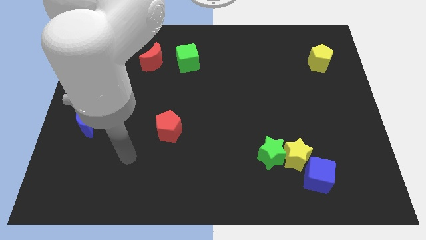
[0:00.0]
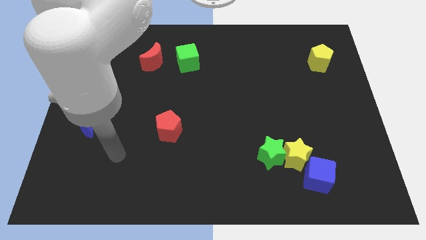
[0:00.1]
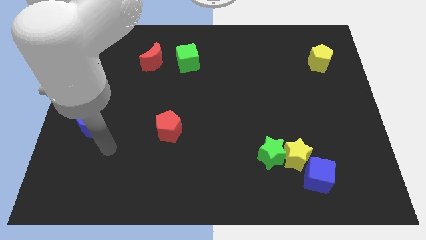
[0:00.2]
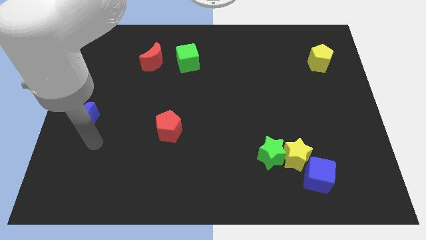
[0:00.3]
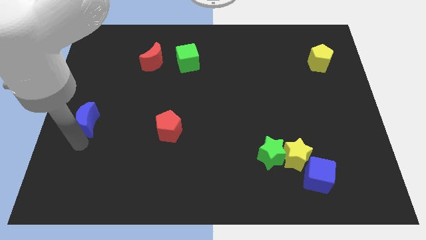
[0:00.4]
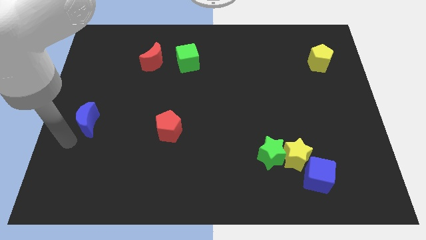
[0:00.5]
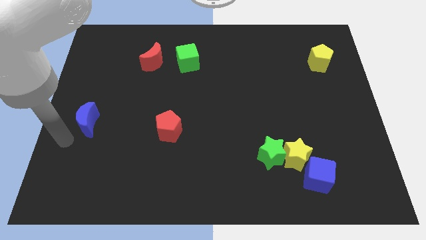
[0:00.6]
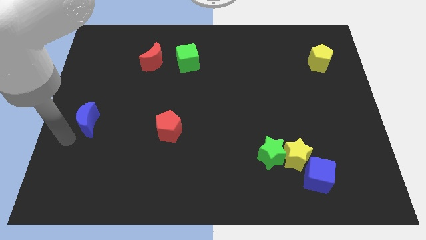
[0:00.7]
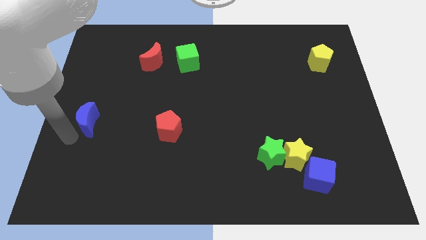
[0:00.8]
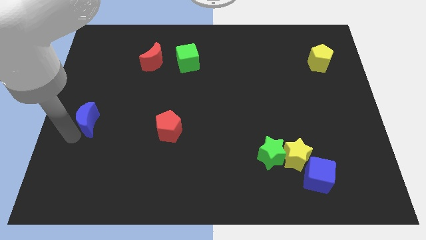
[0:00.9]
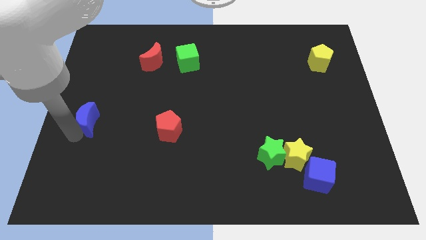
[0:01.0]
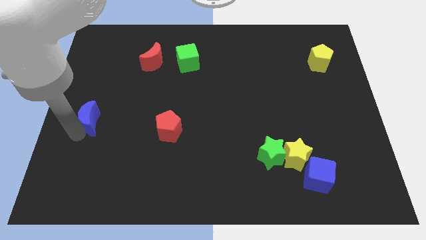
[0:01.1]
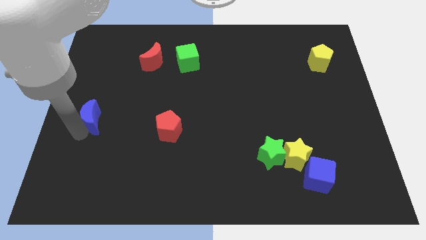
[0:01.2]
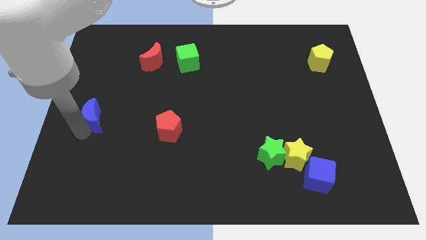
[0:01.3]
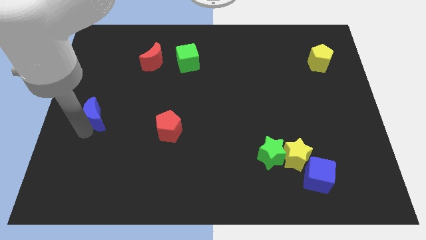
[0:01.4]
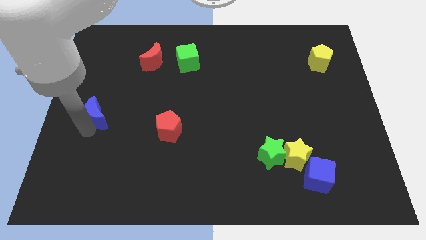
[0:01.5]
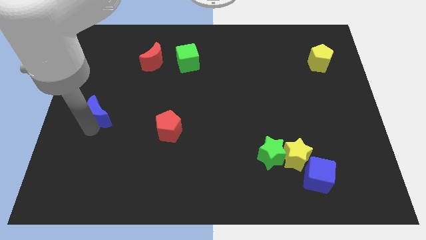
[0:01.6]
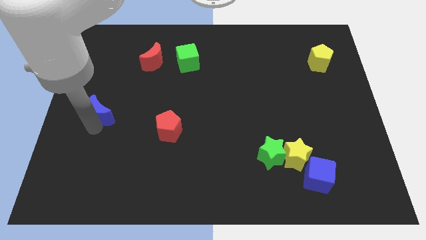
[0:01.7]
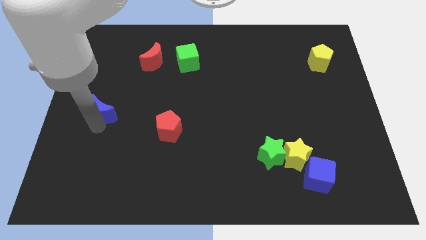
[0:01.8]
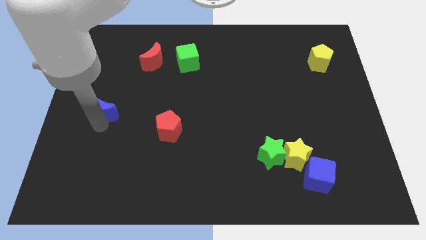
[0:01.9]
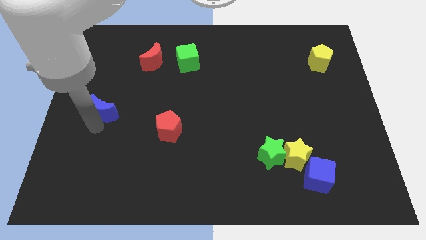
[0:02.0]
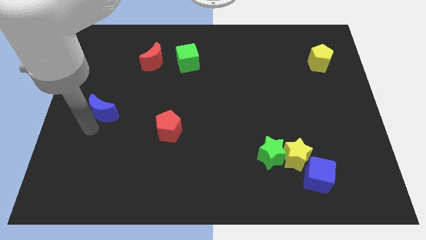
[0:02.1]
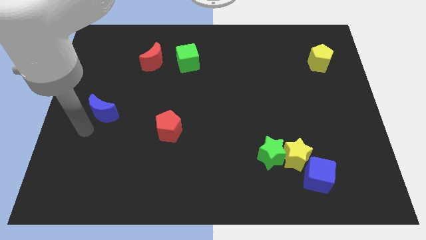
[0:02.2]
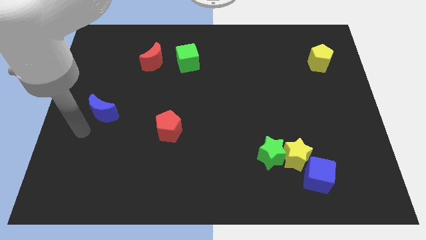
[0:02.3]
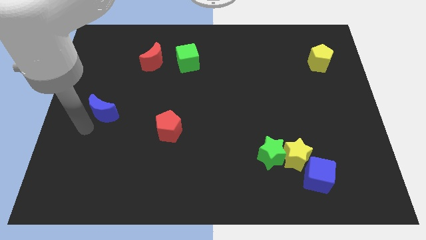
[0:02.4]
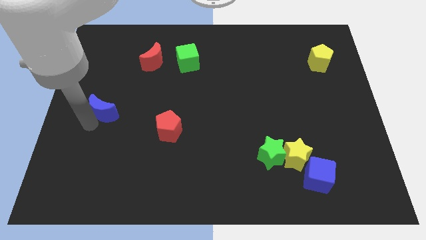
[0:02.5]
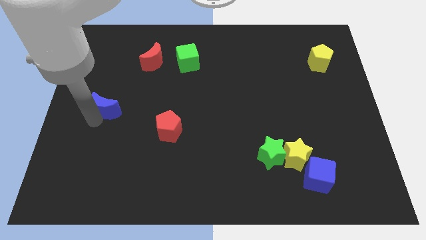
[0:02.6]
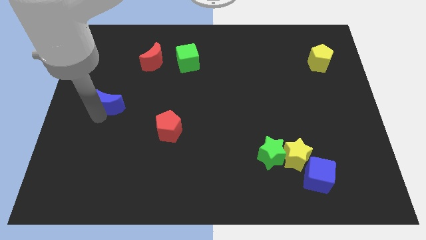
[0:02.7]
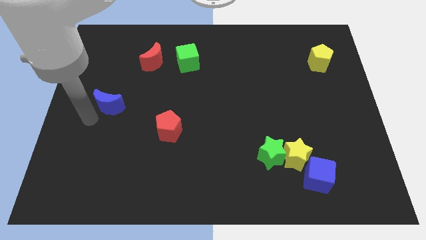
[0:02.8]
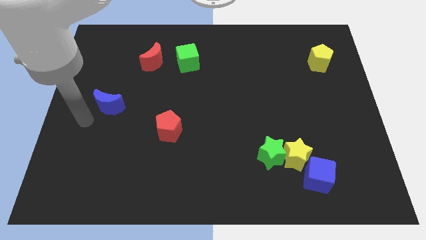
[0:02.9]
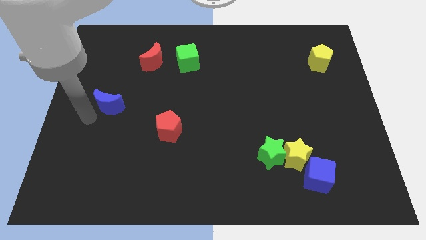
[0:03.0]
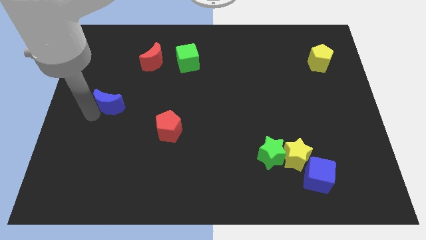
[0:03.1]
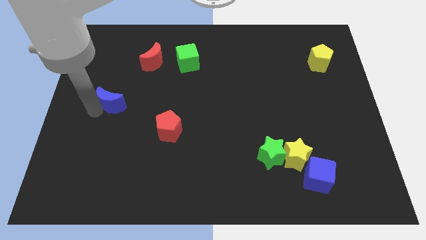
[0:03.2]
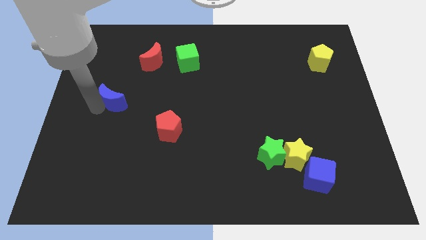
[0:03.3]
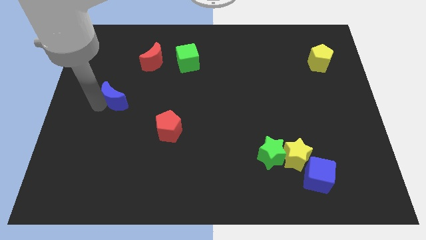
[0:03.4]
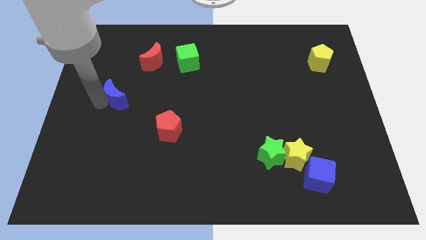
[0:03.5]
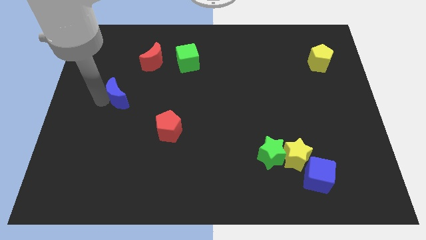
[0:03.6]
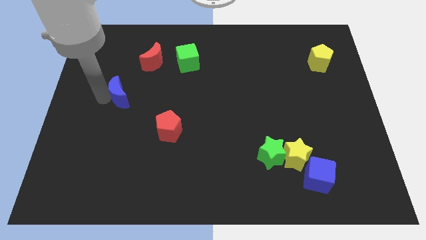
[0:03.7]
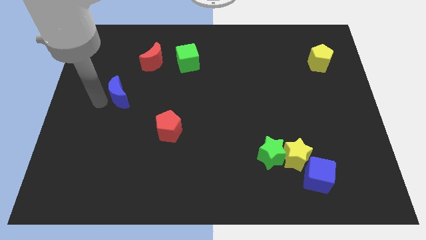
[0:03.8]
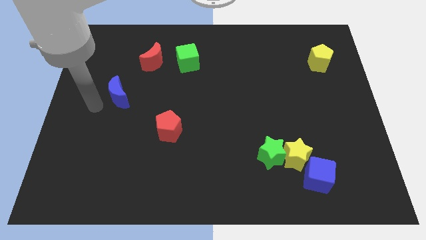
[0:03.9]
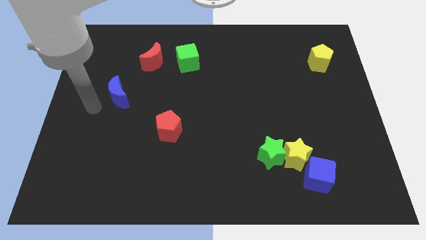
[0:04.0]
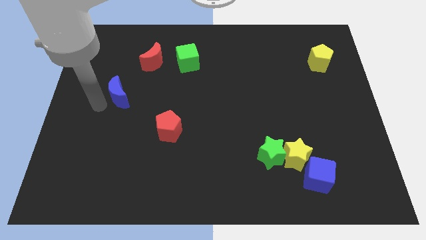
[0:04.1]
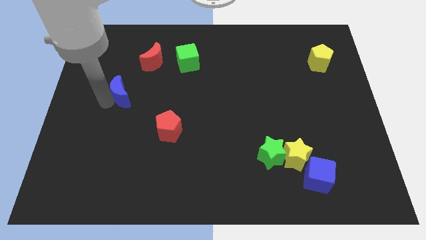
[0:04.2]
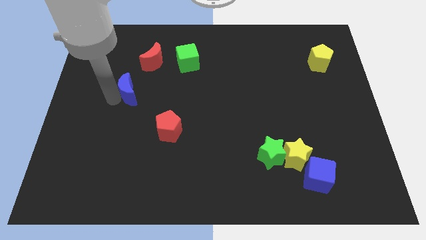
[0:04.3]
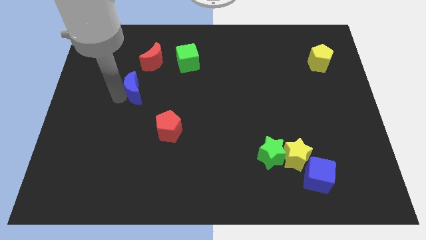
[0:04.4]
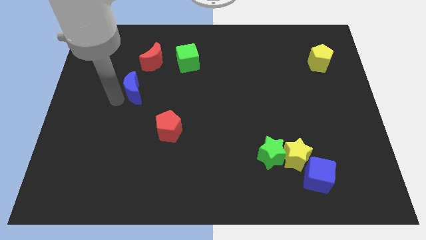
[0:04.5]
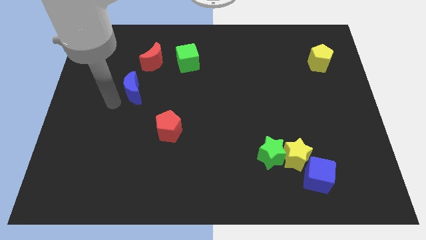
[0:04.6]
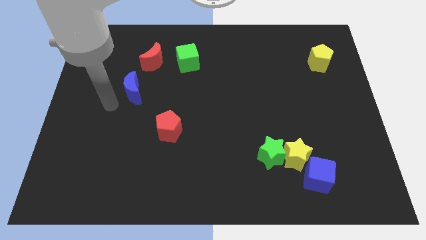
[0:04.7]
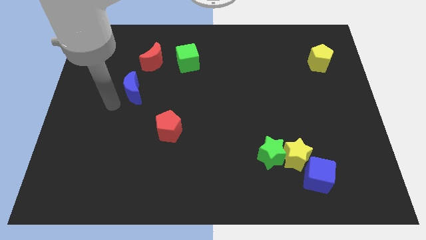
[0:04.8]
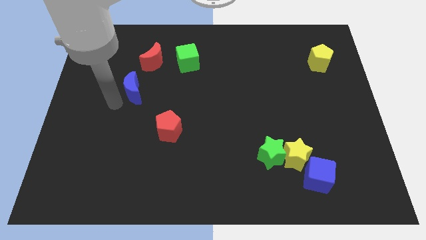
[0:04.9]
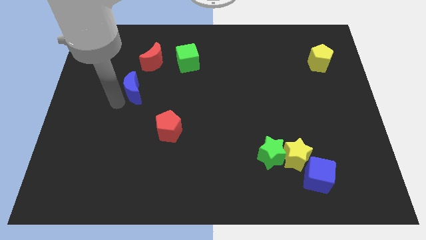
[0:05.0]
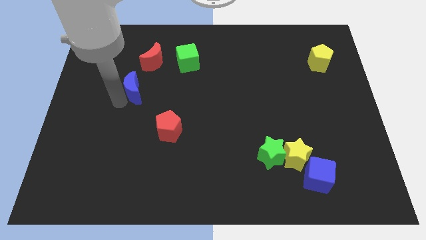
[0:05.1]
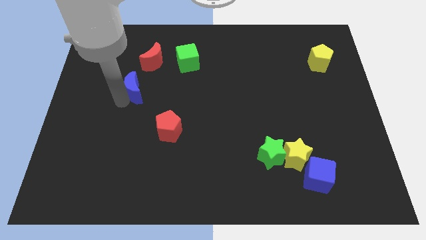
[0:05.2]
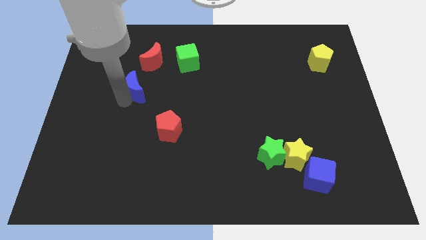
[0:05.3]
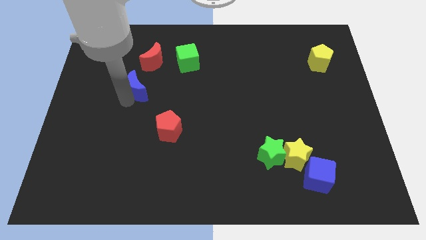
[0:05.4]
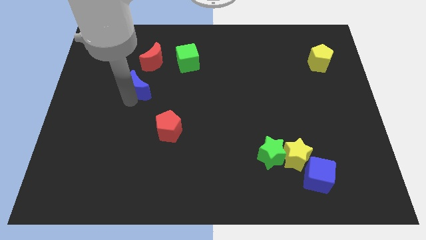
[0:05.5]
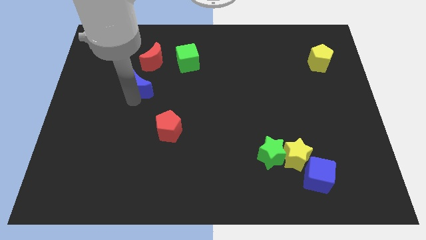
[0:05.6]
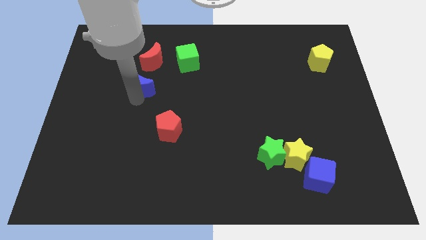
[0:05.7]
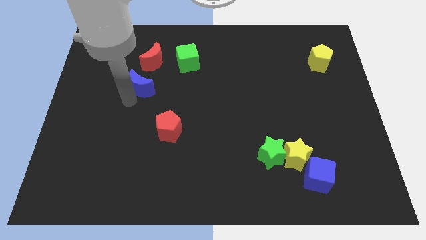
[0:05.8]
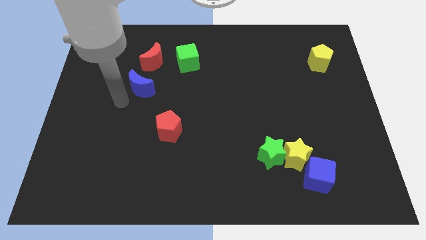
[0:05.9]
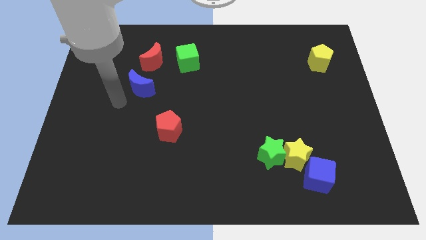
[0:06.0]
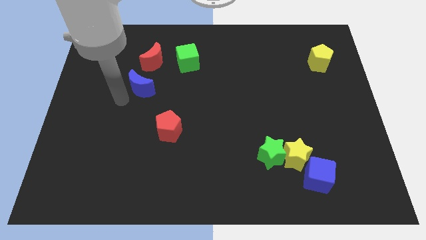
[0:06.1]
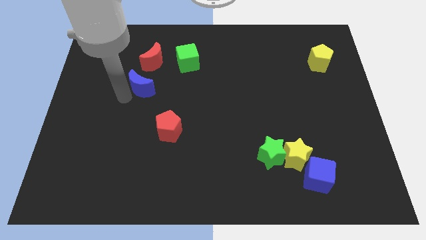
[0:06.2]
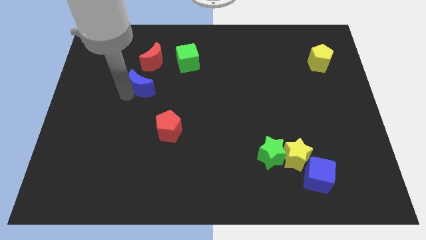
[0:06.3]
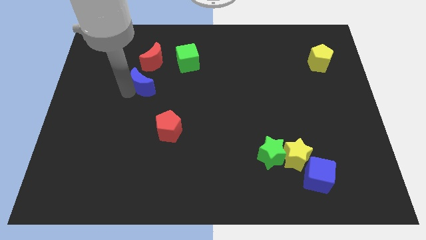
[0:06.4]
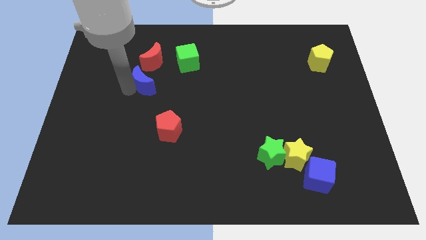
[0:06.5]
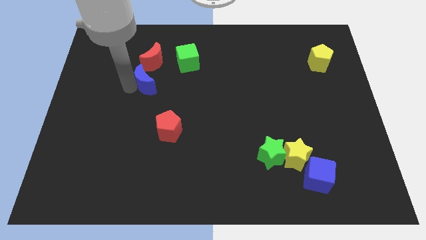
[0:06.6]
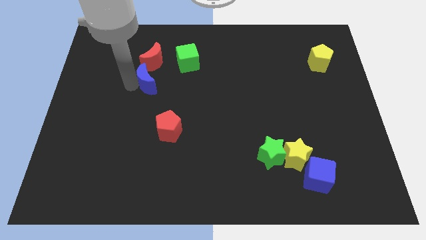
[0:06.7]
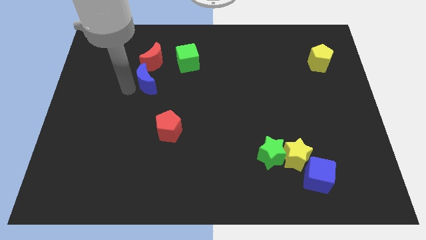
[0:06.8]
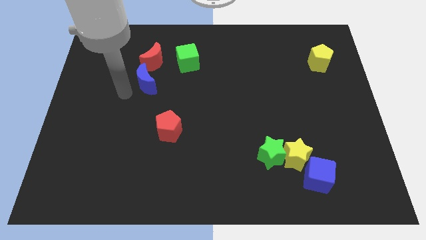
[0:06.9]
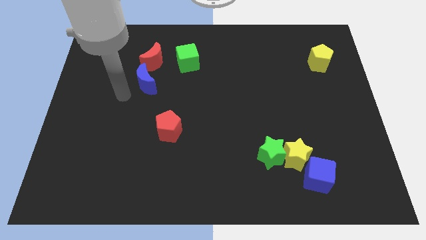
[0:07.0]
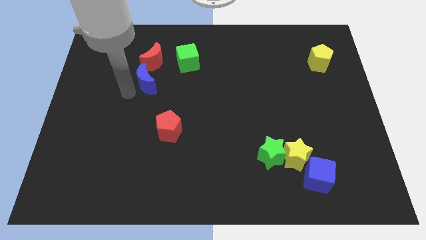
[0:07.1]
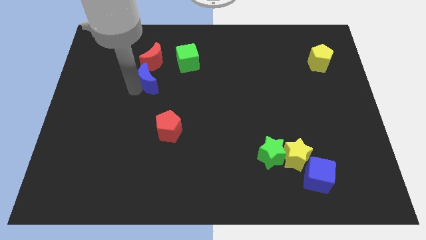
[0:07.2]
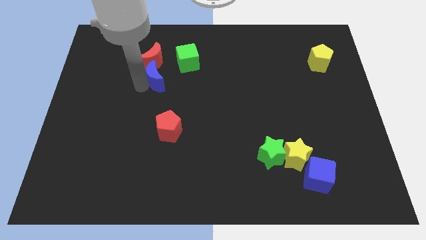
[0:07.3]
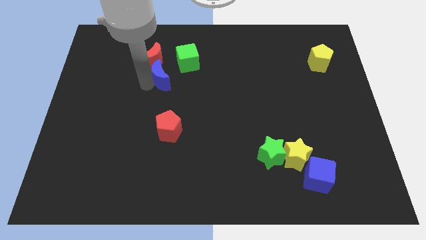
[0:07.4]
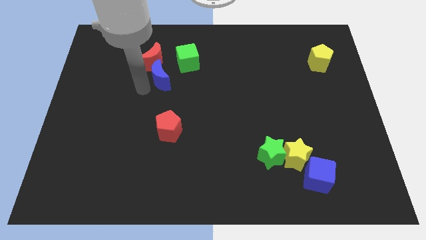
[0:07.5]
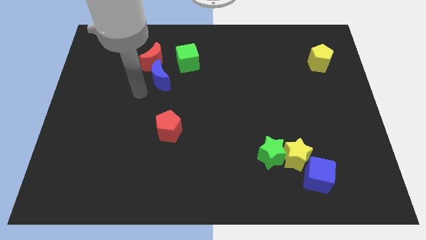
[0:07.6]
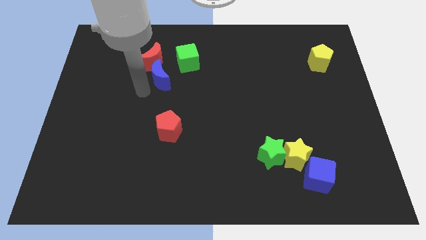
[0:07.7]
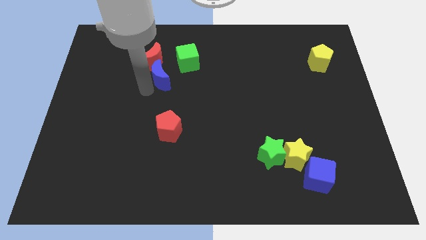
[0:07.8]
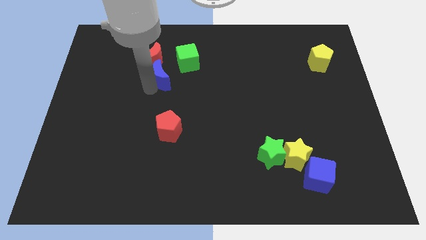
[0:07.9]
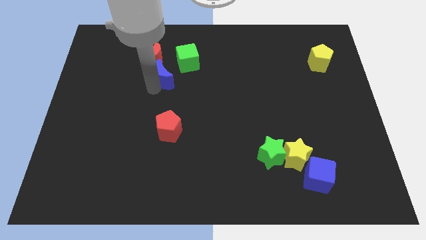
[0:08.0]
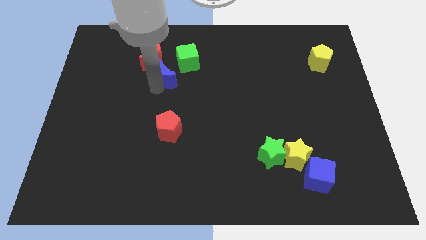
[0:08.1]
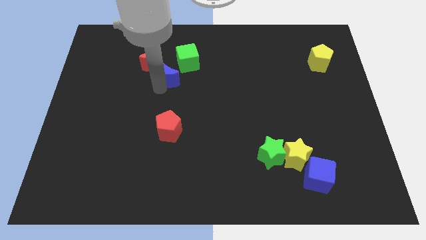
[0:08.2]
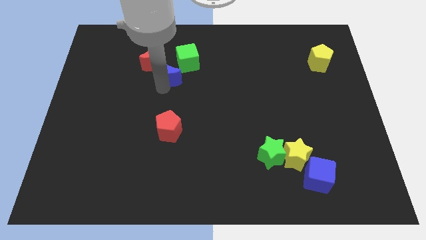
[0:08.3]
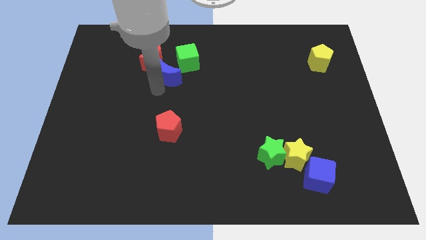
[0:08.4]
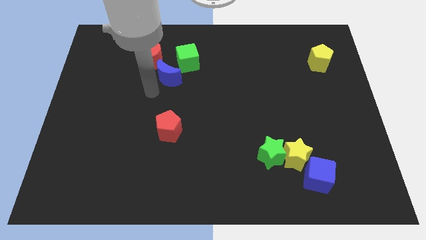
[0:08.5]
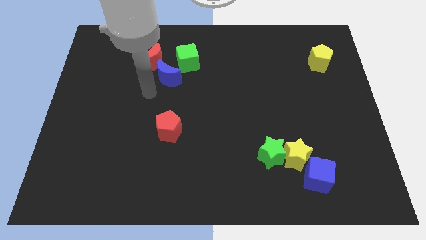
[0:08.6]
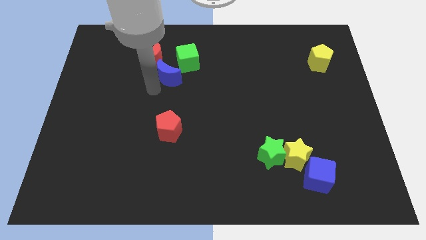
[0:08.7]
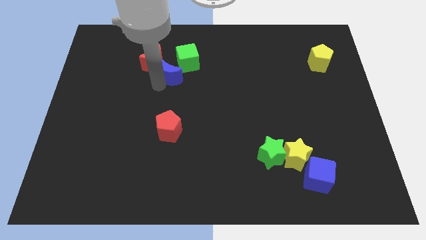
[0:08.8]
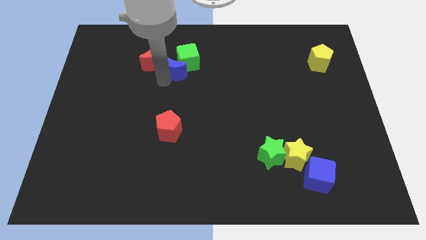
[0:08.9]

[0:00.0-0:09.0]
move the blue moon close to the green cube
